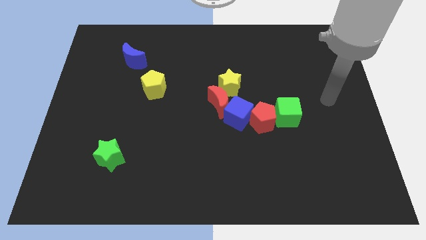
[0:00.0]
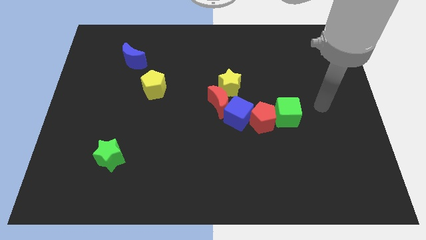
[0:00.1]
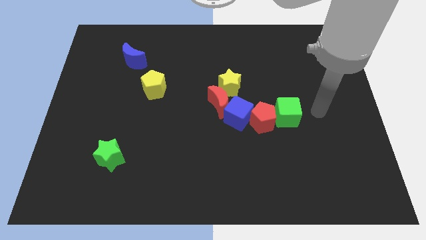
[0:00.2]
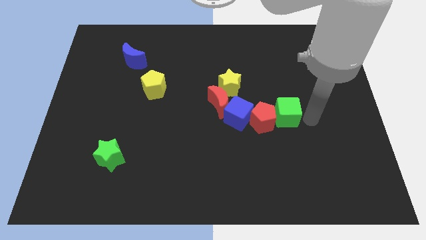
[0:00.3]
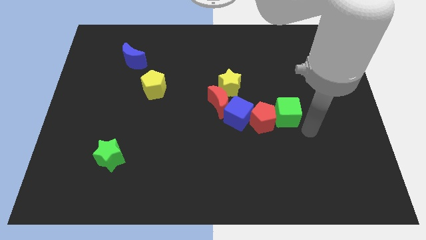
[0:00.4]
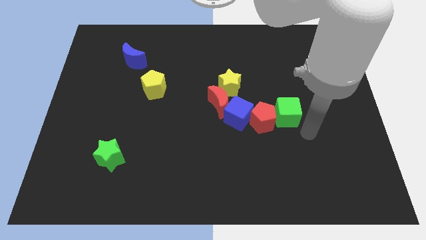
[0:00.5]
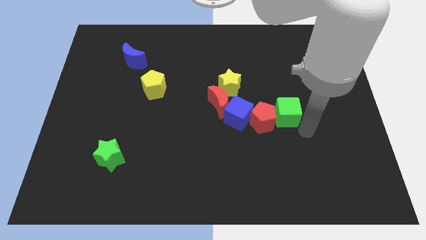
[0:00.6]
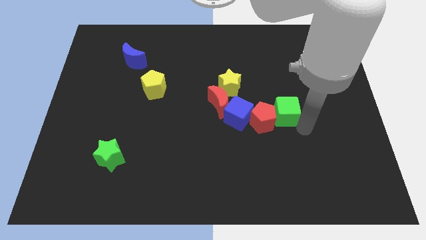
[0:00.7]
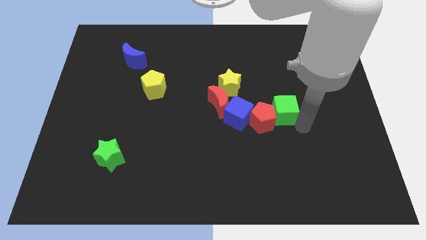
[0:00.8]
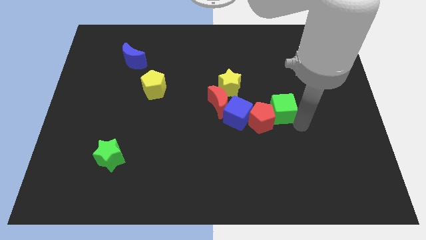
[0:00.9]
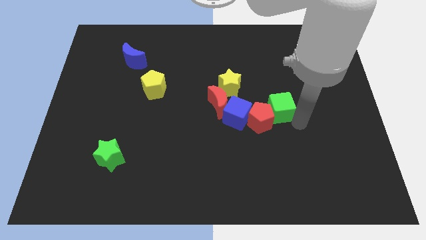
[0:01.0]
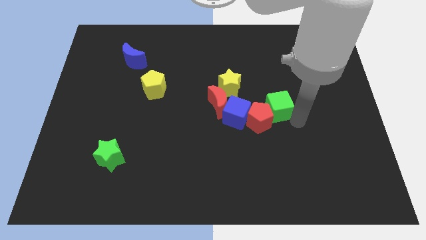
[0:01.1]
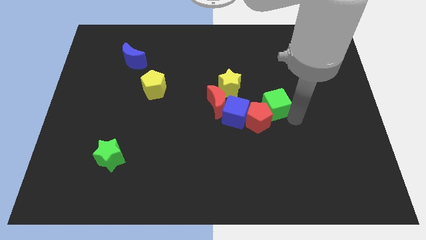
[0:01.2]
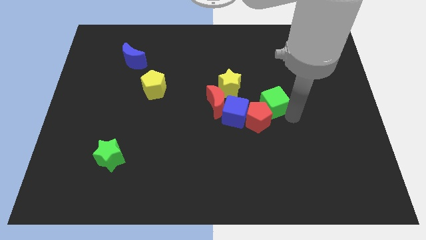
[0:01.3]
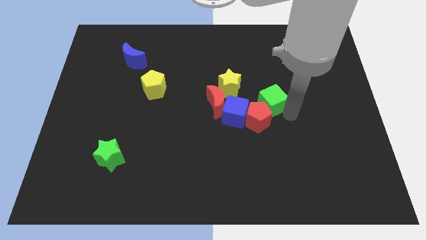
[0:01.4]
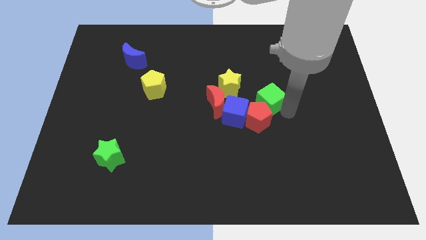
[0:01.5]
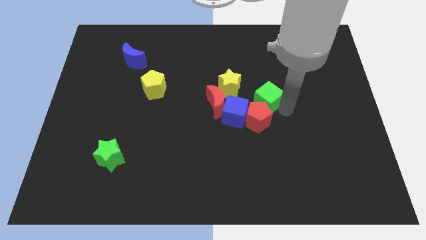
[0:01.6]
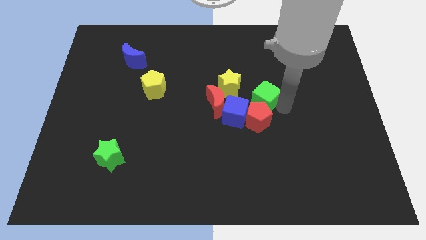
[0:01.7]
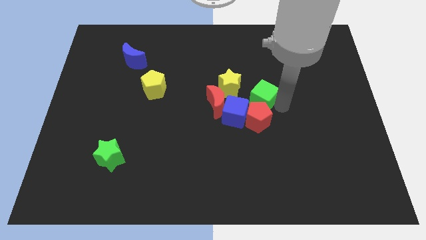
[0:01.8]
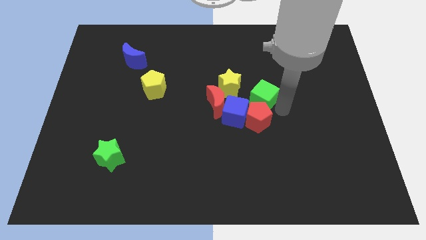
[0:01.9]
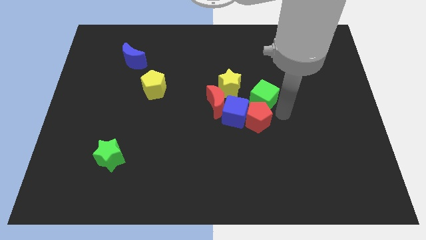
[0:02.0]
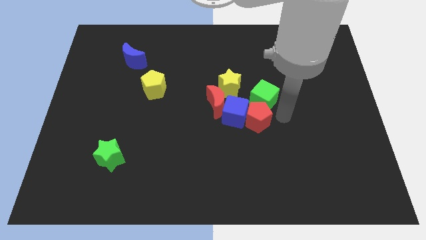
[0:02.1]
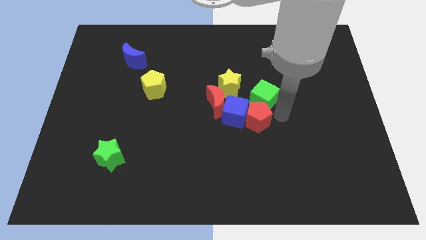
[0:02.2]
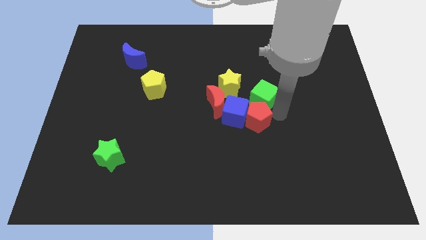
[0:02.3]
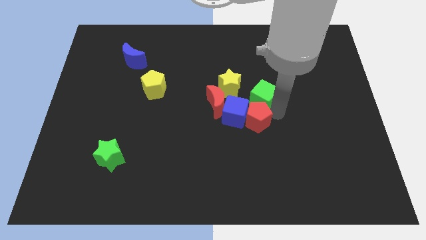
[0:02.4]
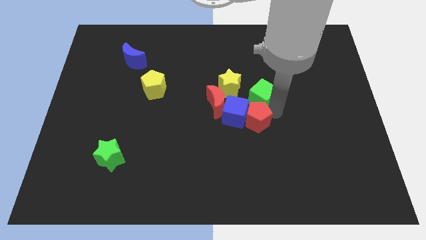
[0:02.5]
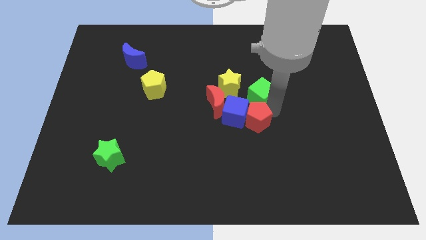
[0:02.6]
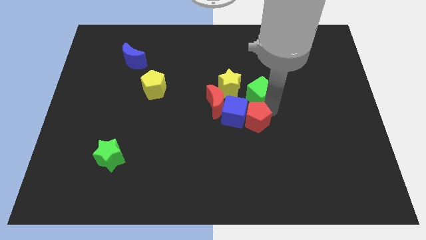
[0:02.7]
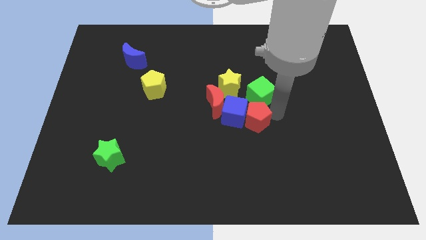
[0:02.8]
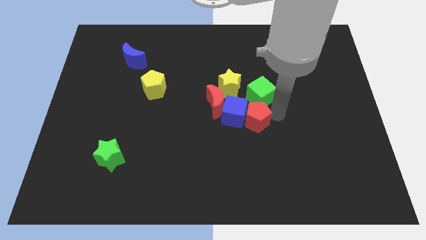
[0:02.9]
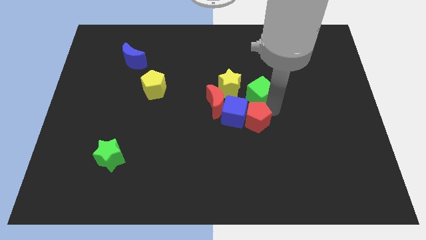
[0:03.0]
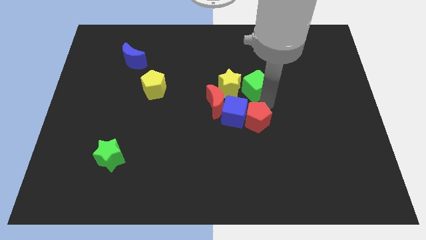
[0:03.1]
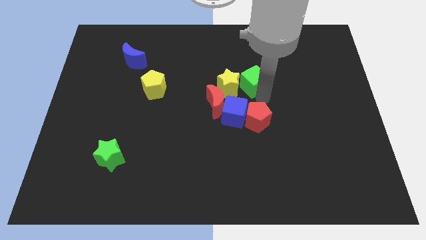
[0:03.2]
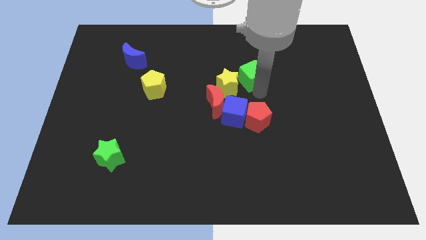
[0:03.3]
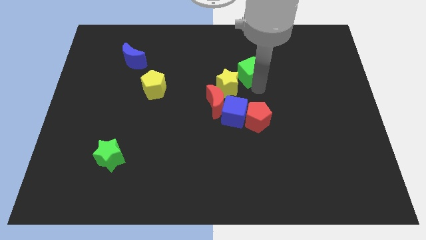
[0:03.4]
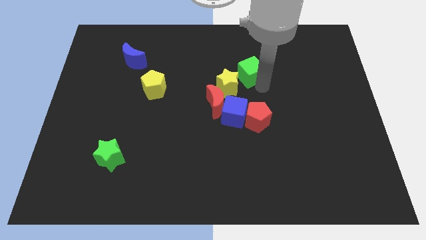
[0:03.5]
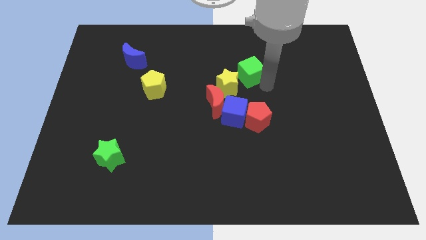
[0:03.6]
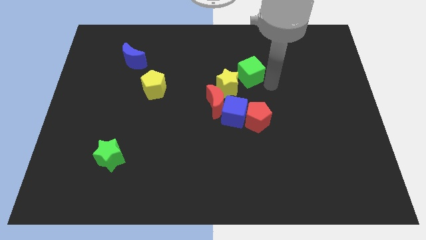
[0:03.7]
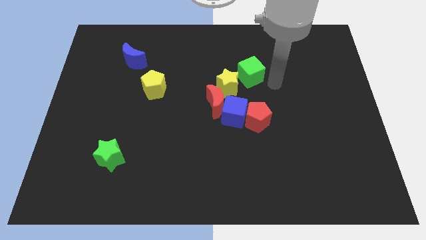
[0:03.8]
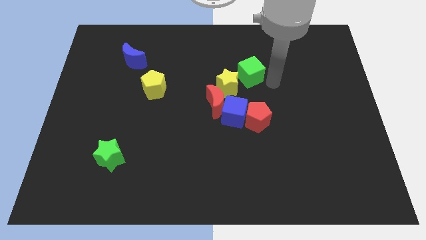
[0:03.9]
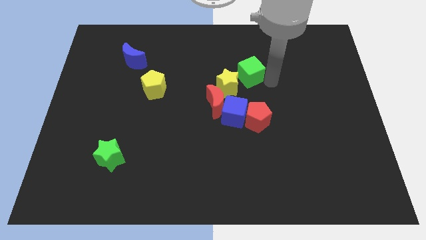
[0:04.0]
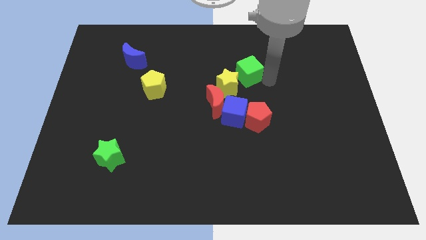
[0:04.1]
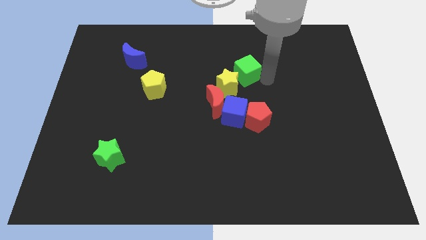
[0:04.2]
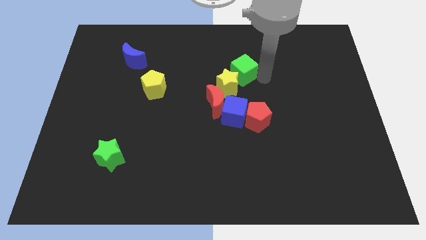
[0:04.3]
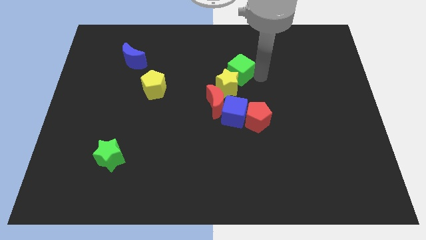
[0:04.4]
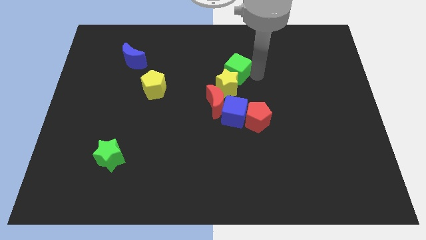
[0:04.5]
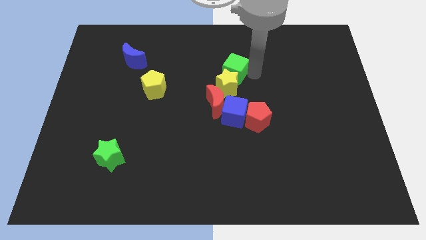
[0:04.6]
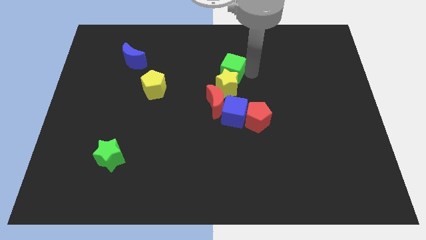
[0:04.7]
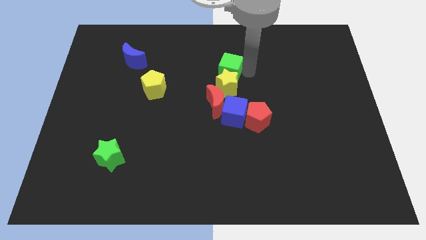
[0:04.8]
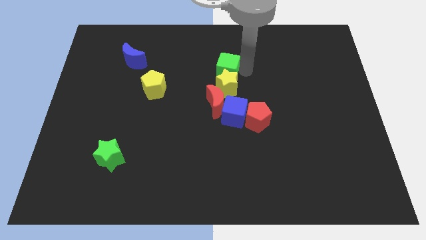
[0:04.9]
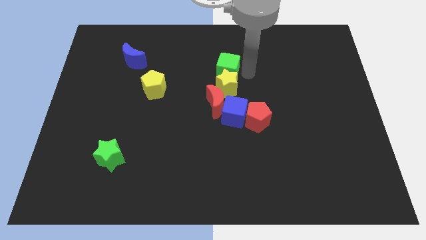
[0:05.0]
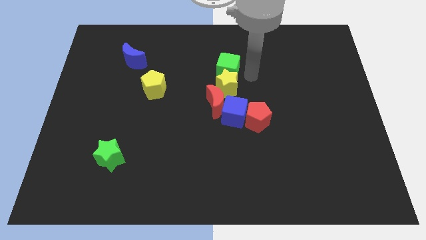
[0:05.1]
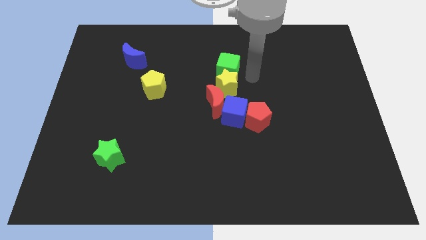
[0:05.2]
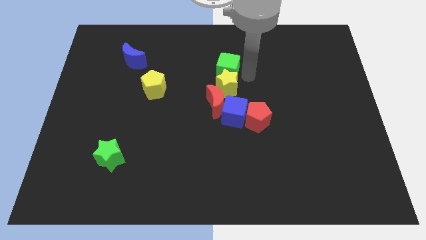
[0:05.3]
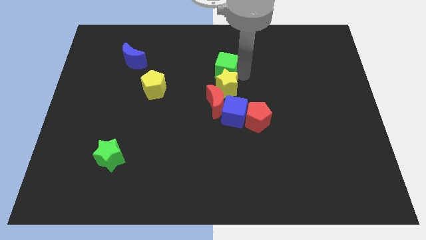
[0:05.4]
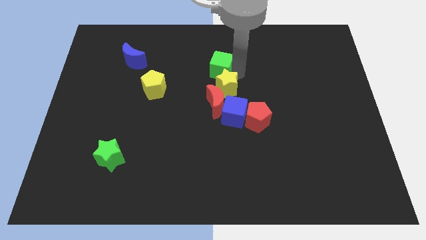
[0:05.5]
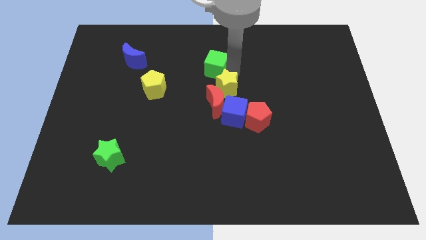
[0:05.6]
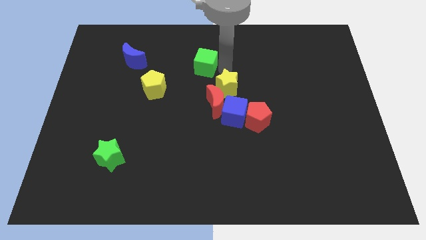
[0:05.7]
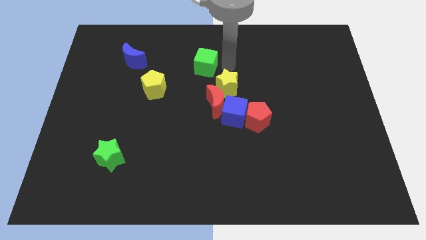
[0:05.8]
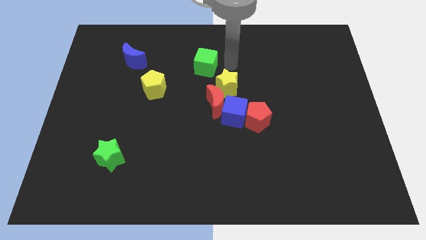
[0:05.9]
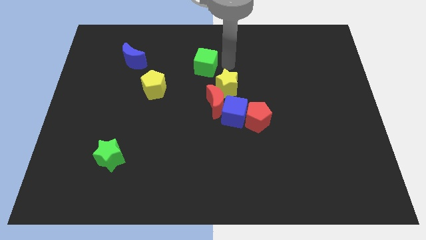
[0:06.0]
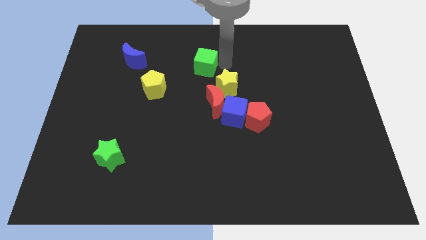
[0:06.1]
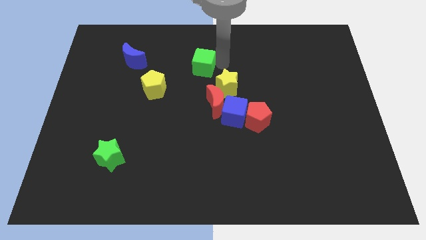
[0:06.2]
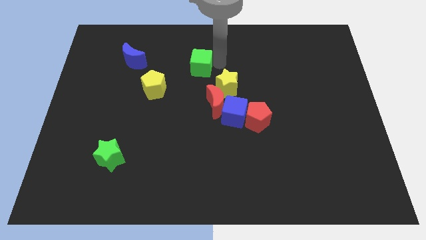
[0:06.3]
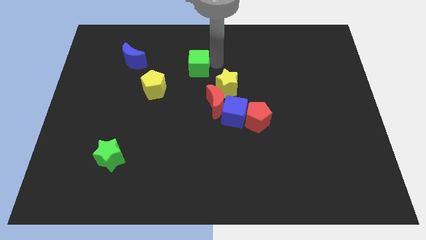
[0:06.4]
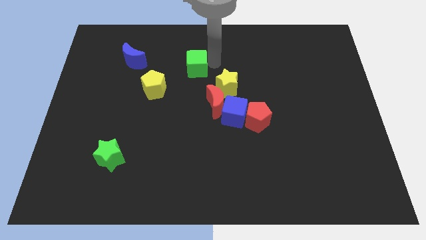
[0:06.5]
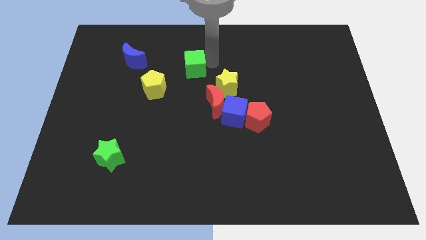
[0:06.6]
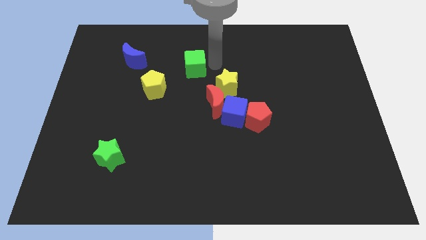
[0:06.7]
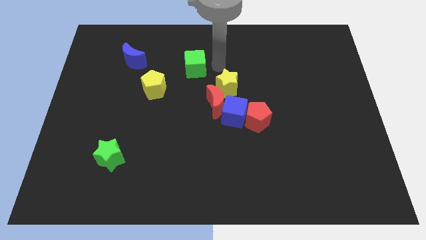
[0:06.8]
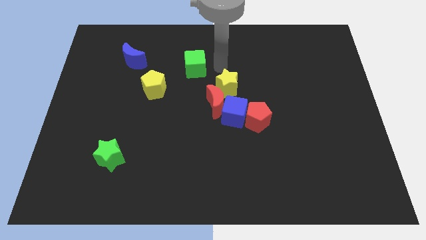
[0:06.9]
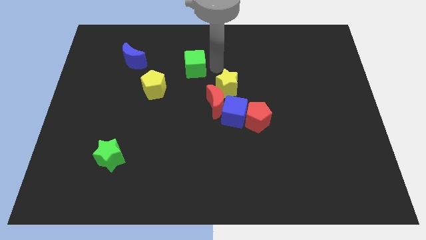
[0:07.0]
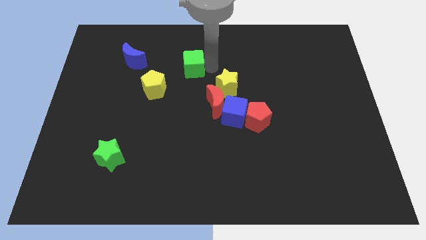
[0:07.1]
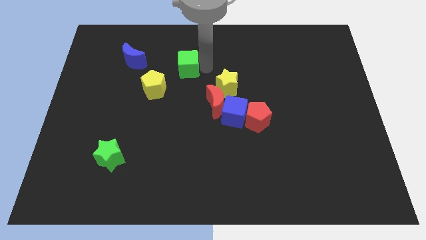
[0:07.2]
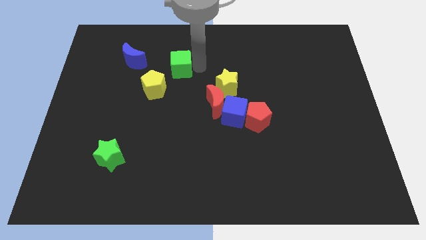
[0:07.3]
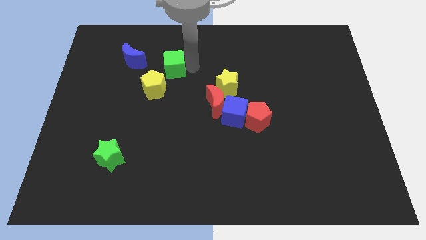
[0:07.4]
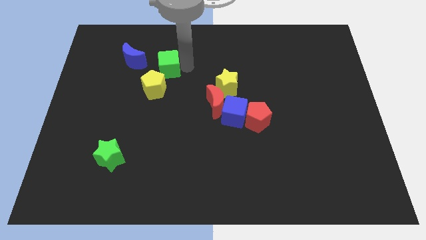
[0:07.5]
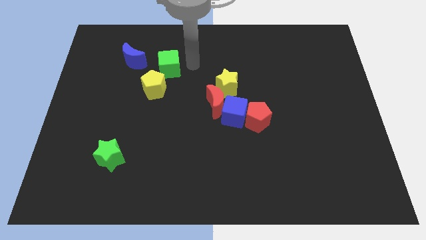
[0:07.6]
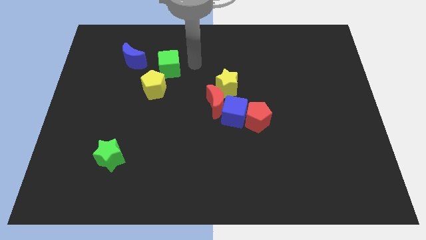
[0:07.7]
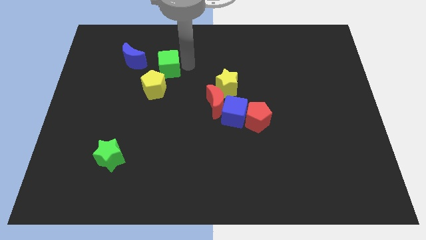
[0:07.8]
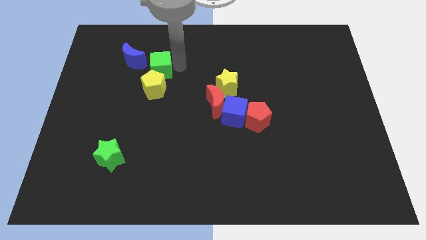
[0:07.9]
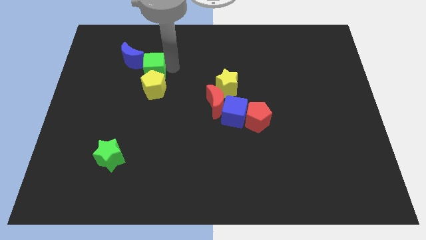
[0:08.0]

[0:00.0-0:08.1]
move the green cube to the top left of the yellow pentagon
